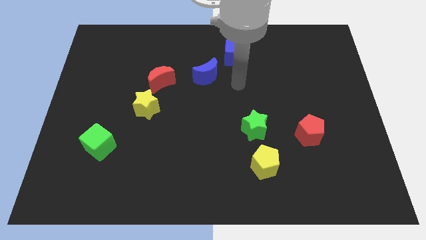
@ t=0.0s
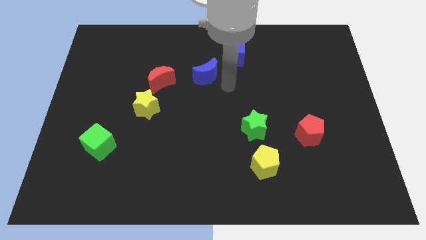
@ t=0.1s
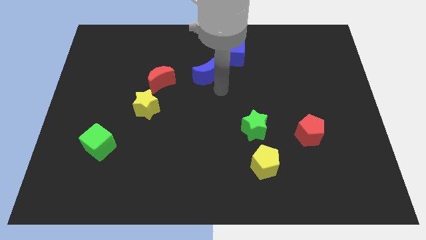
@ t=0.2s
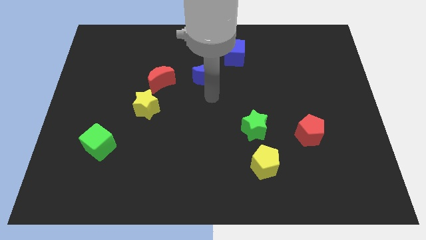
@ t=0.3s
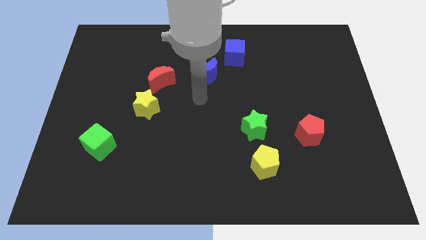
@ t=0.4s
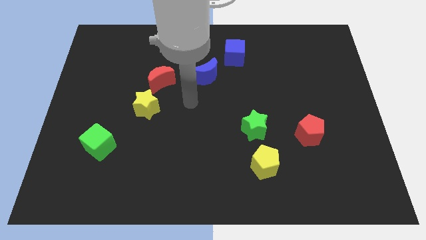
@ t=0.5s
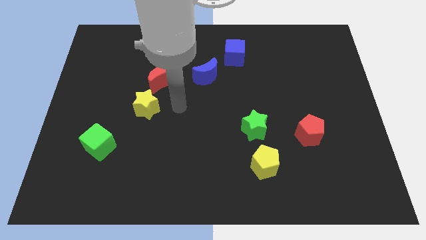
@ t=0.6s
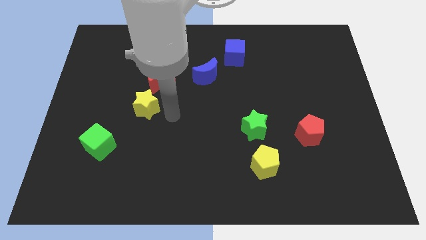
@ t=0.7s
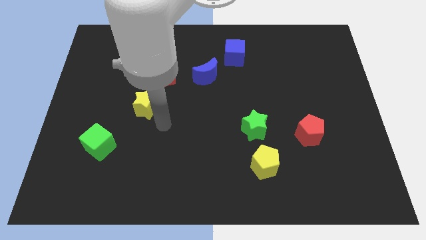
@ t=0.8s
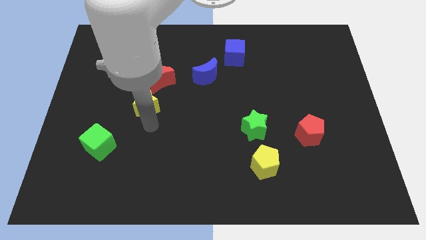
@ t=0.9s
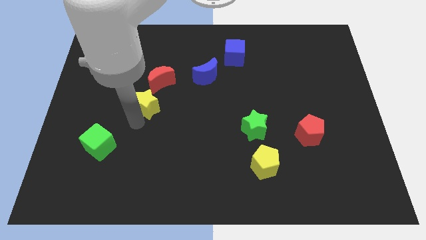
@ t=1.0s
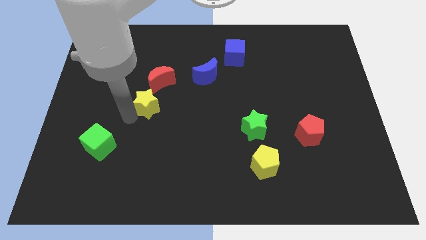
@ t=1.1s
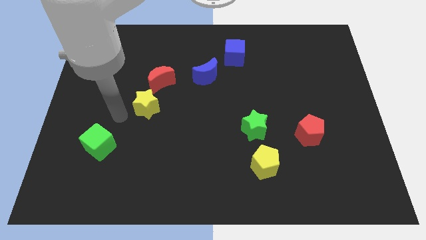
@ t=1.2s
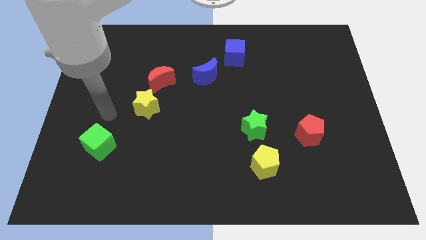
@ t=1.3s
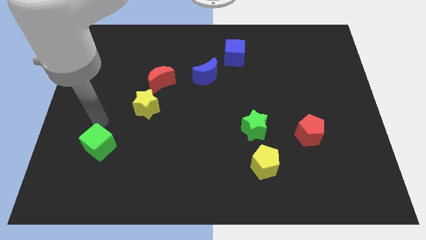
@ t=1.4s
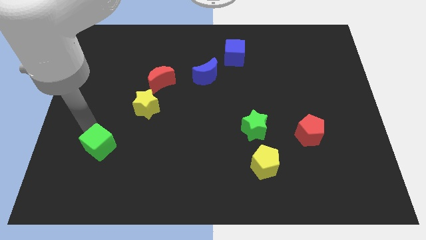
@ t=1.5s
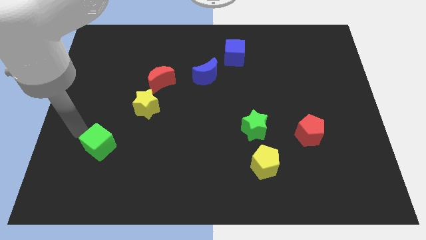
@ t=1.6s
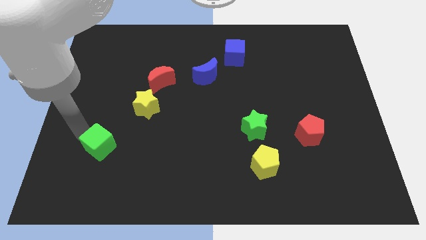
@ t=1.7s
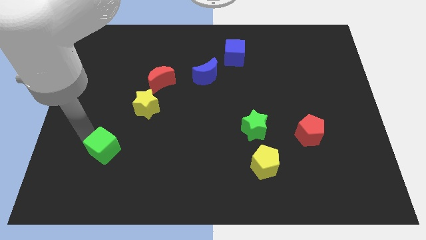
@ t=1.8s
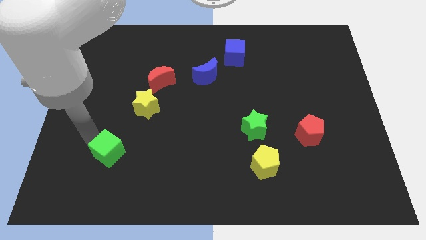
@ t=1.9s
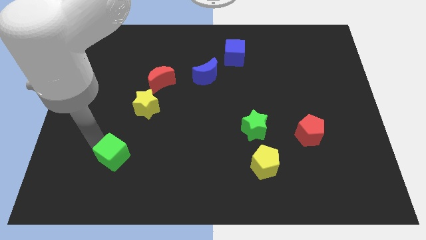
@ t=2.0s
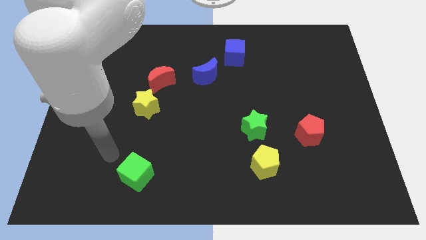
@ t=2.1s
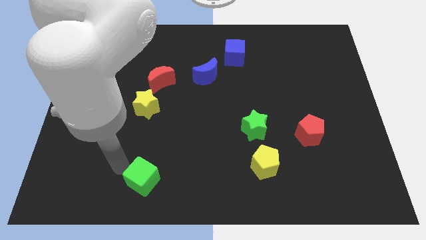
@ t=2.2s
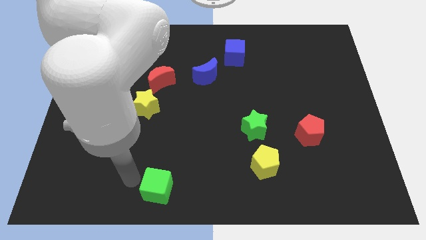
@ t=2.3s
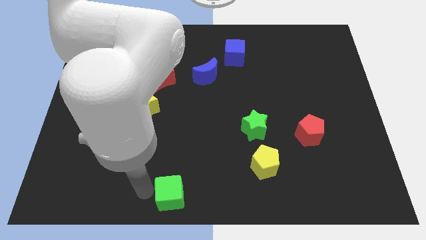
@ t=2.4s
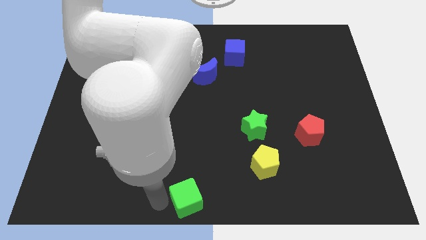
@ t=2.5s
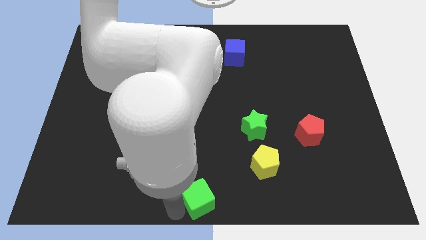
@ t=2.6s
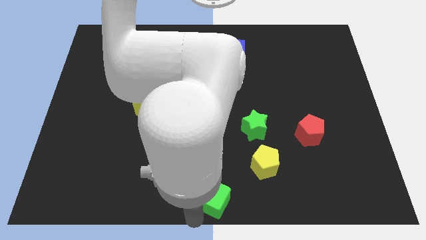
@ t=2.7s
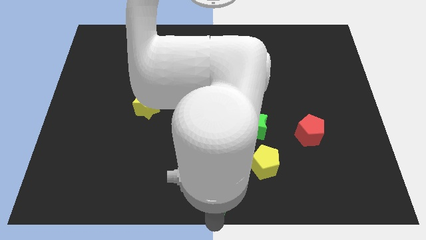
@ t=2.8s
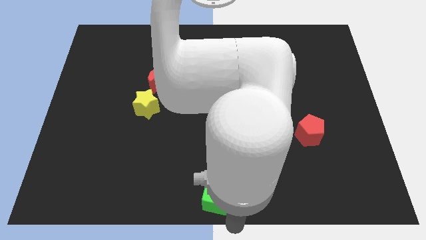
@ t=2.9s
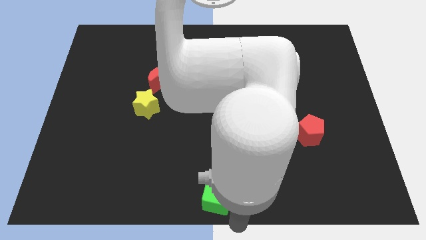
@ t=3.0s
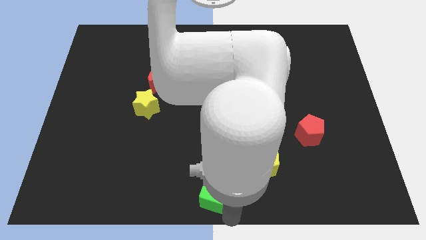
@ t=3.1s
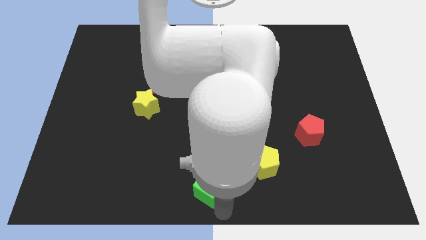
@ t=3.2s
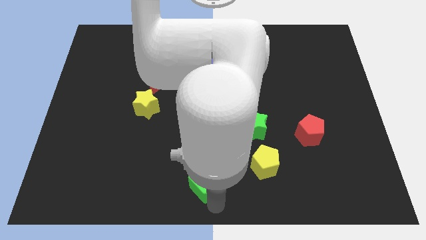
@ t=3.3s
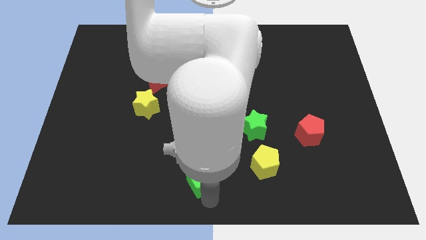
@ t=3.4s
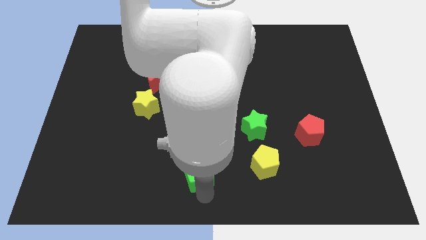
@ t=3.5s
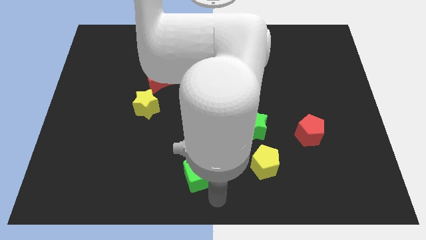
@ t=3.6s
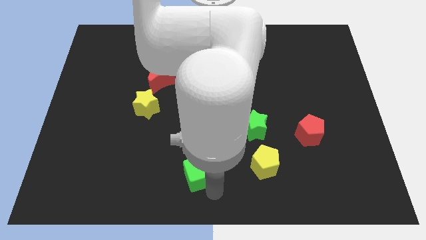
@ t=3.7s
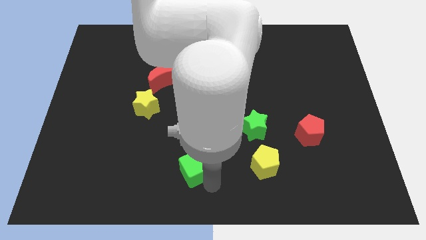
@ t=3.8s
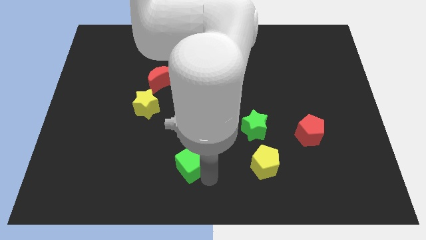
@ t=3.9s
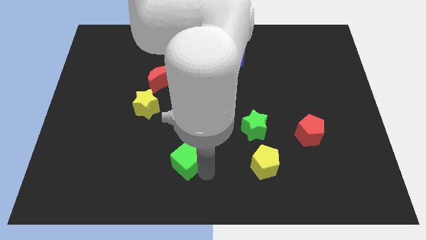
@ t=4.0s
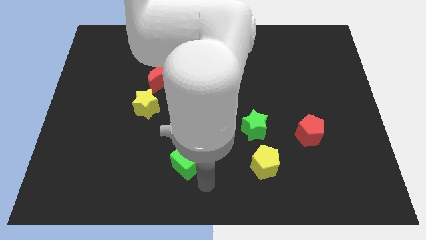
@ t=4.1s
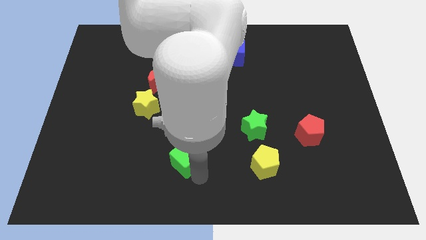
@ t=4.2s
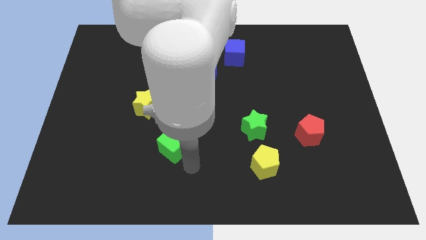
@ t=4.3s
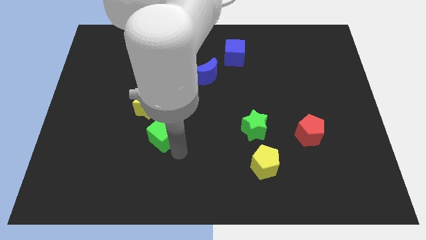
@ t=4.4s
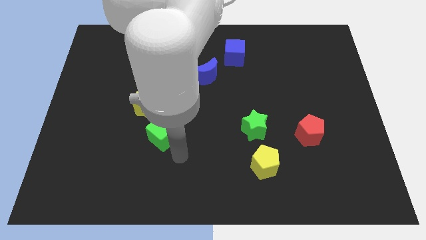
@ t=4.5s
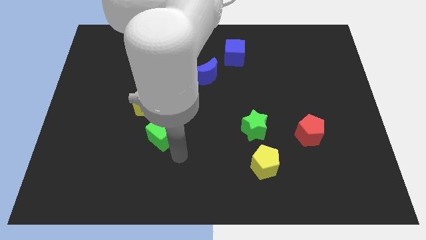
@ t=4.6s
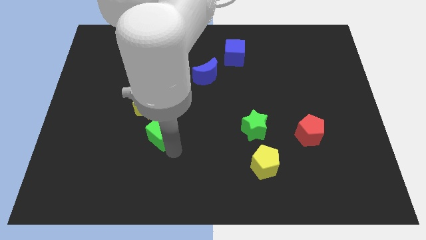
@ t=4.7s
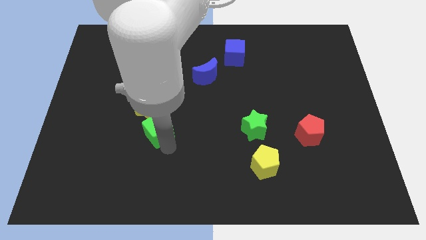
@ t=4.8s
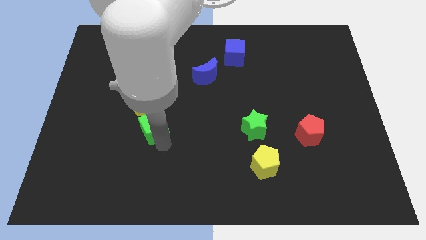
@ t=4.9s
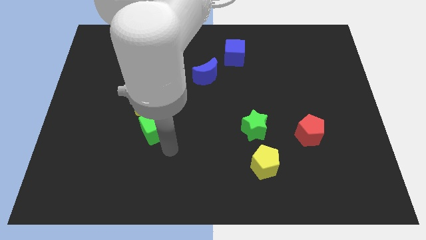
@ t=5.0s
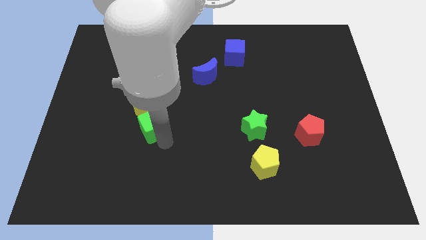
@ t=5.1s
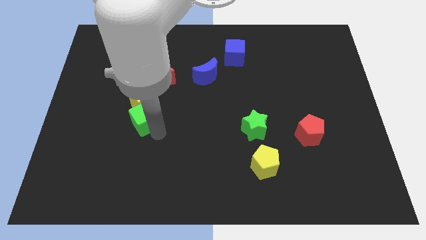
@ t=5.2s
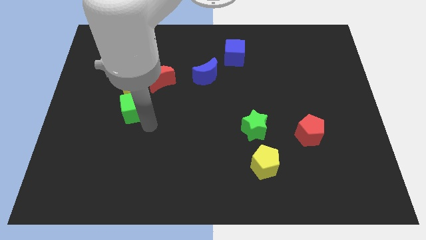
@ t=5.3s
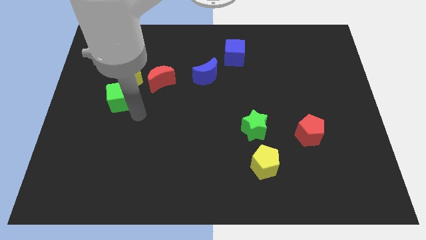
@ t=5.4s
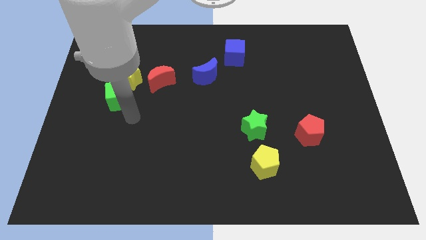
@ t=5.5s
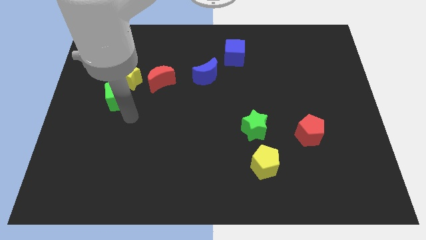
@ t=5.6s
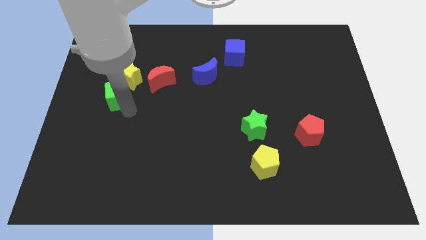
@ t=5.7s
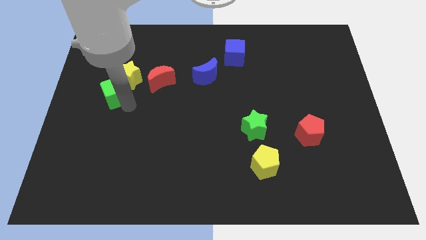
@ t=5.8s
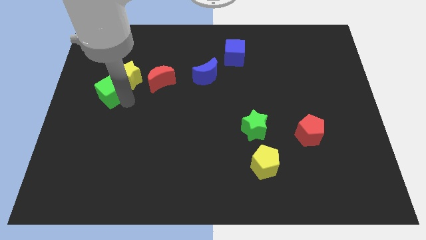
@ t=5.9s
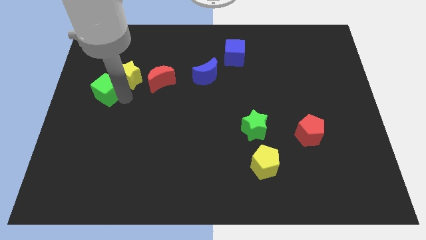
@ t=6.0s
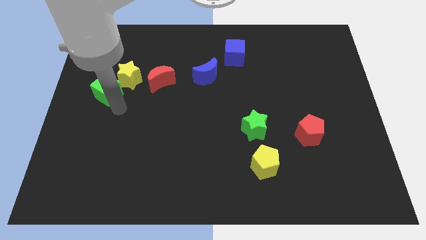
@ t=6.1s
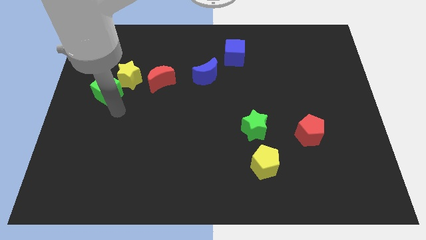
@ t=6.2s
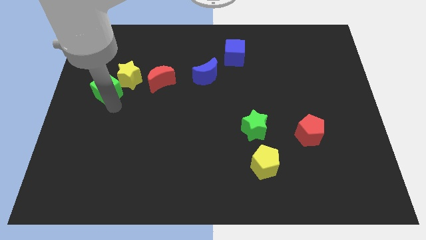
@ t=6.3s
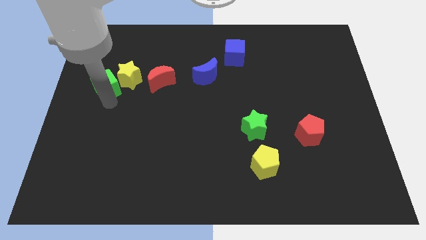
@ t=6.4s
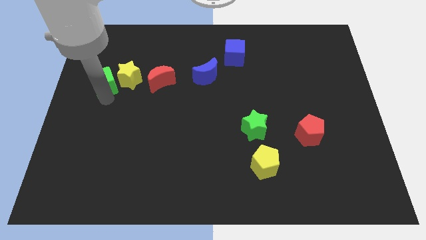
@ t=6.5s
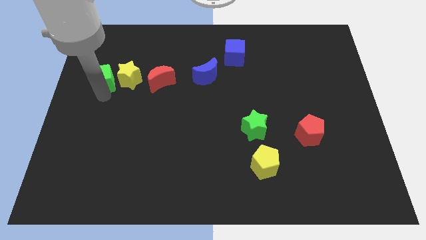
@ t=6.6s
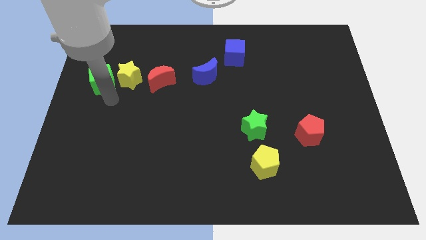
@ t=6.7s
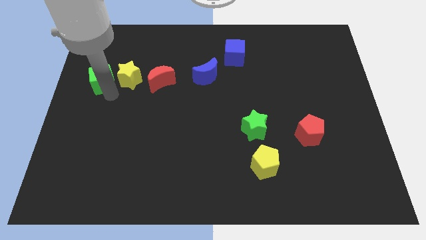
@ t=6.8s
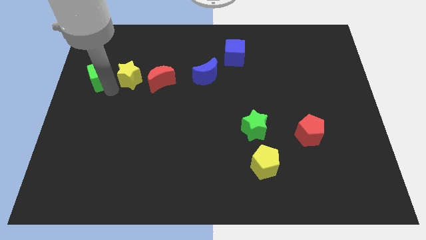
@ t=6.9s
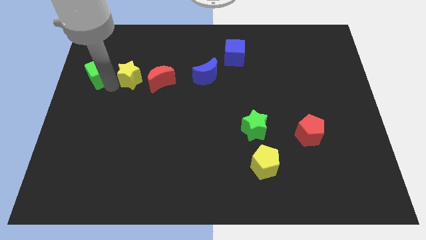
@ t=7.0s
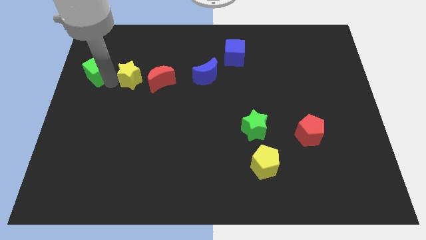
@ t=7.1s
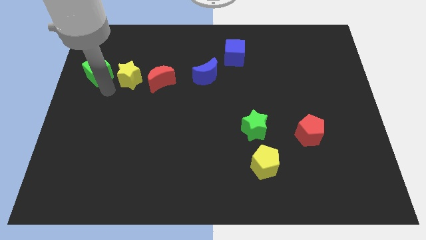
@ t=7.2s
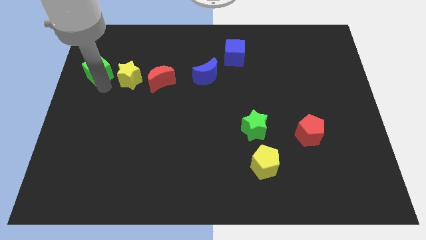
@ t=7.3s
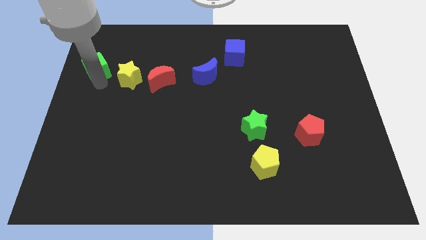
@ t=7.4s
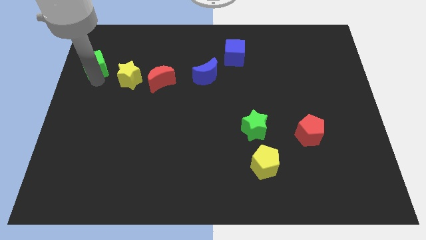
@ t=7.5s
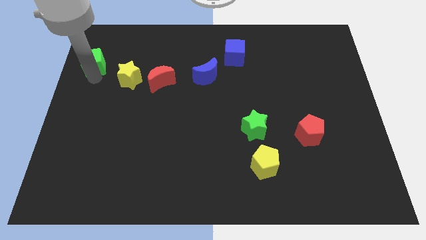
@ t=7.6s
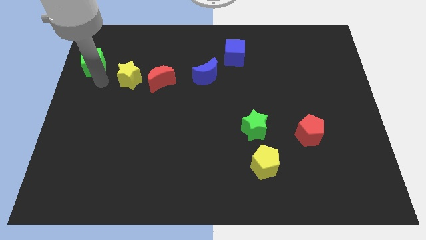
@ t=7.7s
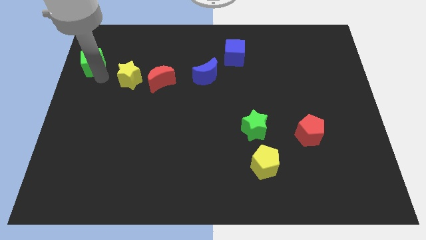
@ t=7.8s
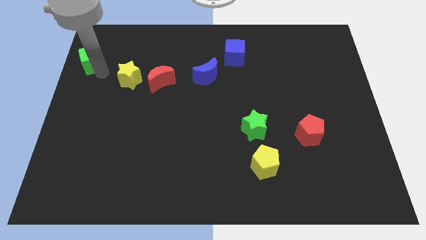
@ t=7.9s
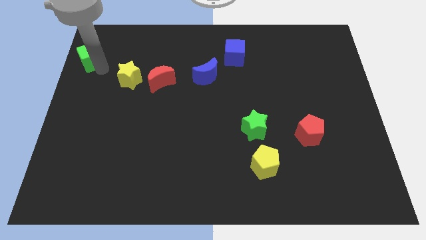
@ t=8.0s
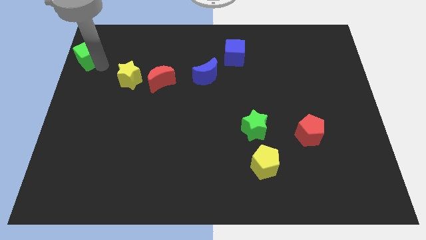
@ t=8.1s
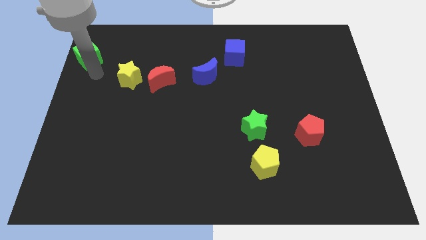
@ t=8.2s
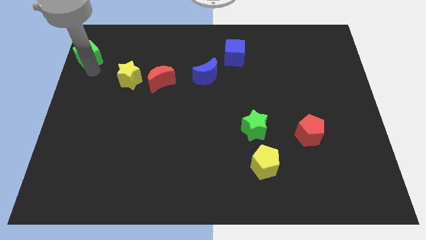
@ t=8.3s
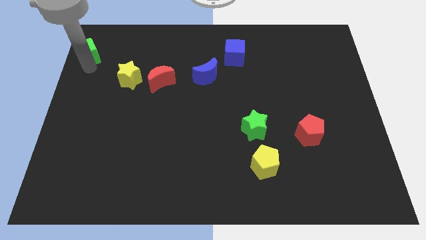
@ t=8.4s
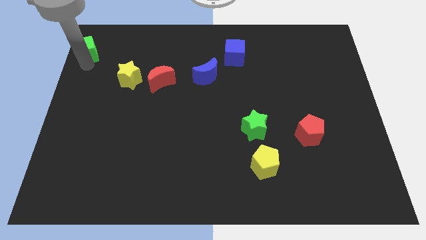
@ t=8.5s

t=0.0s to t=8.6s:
slide the green cube to the upper left corner
